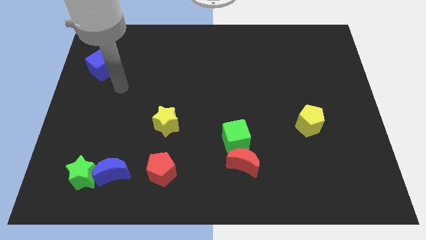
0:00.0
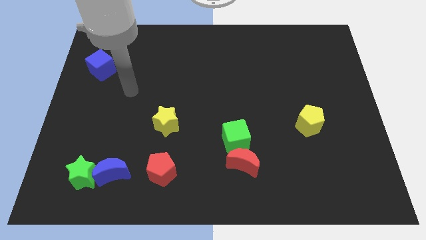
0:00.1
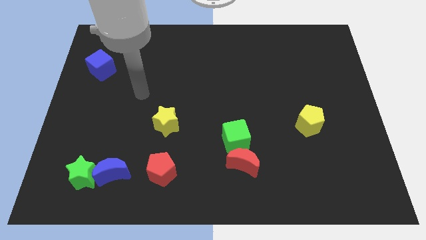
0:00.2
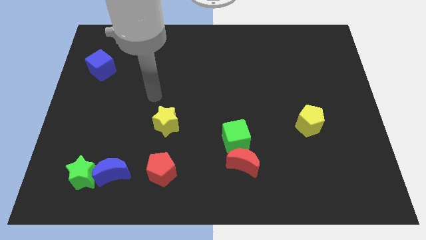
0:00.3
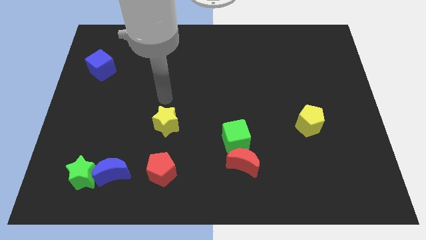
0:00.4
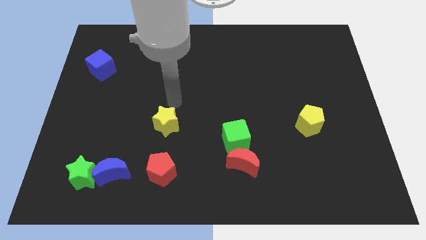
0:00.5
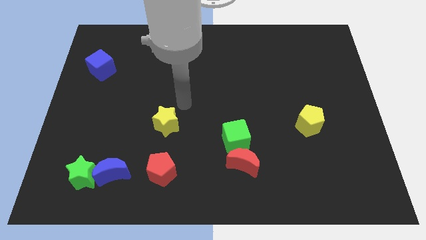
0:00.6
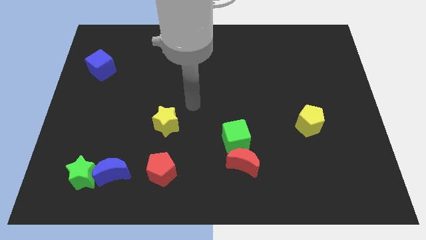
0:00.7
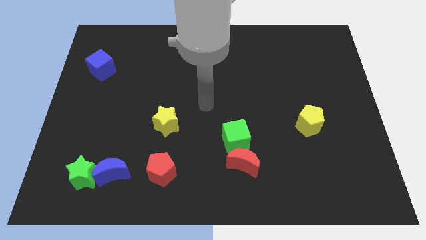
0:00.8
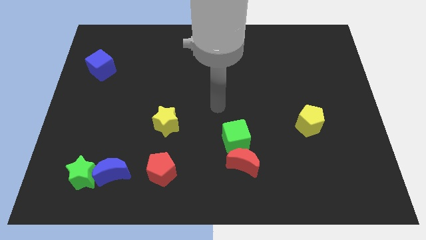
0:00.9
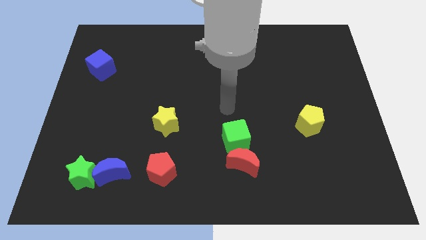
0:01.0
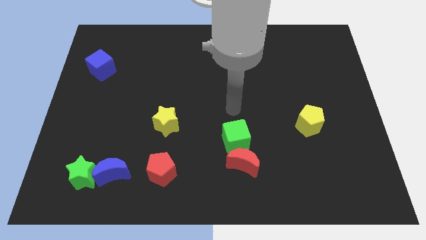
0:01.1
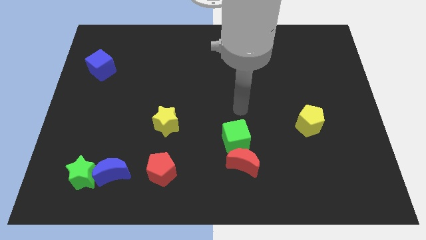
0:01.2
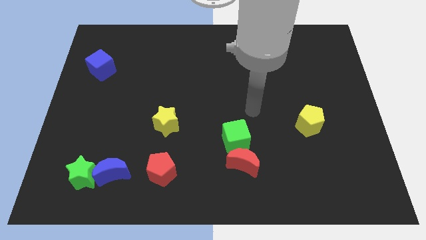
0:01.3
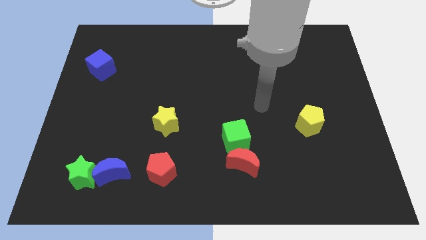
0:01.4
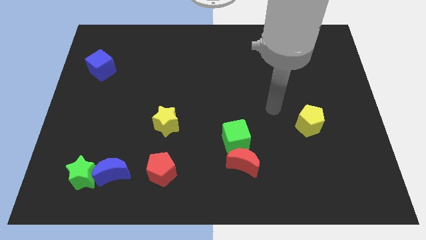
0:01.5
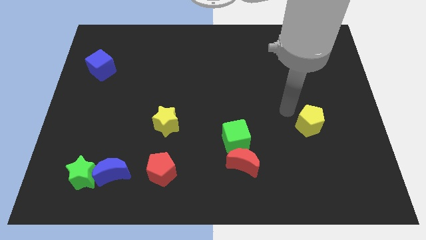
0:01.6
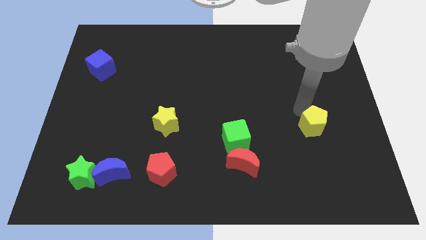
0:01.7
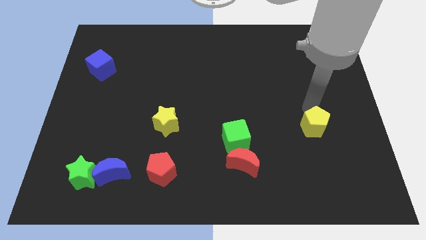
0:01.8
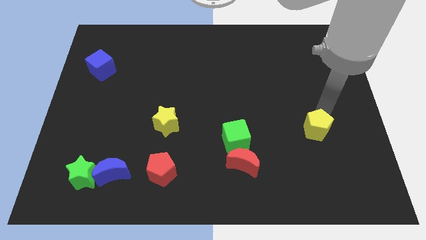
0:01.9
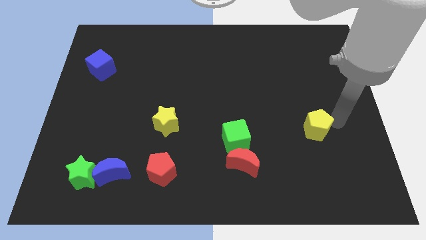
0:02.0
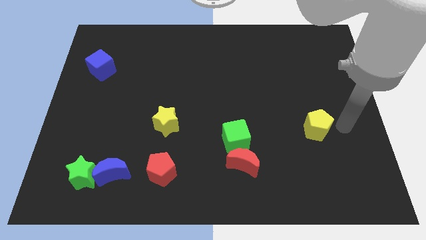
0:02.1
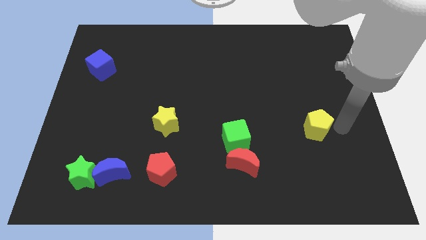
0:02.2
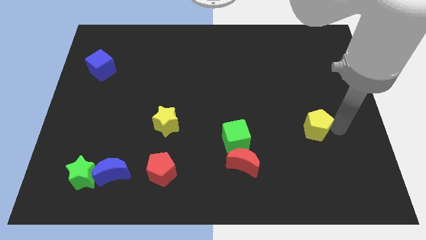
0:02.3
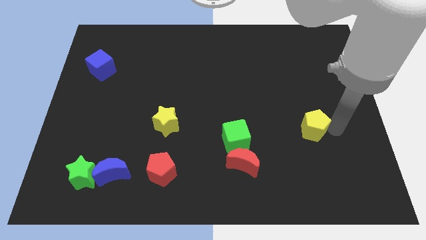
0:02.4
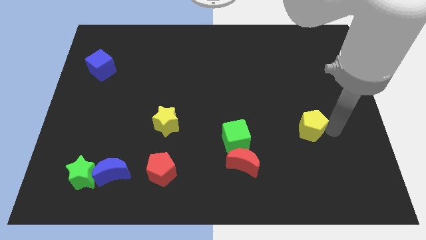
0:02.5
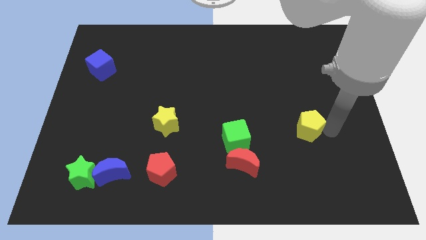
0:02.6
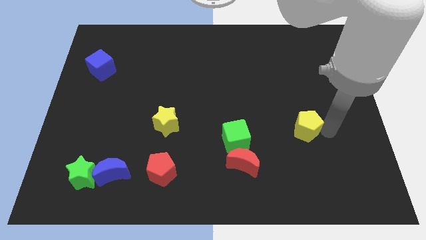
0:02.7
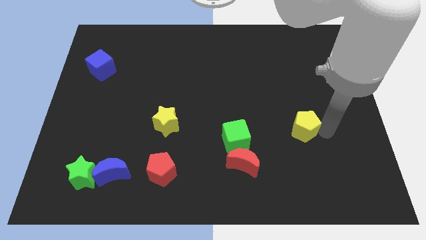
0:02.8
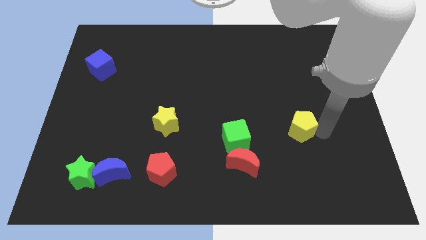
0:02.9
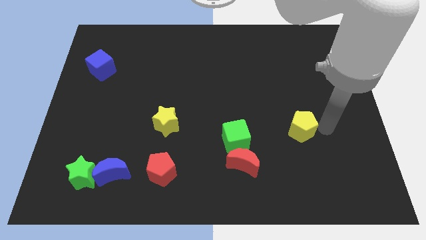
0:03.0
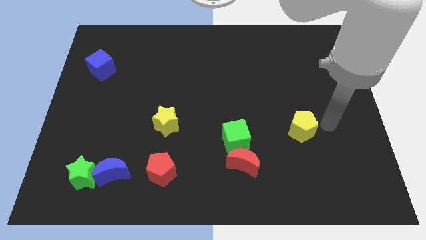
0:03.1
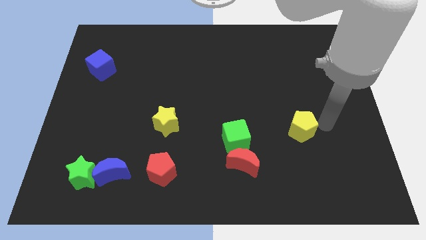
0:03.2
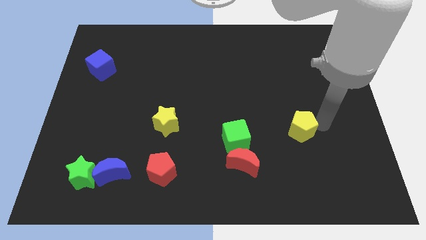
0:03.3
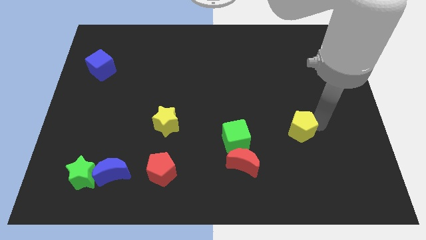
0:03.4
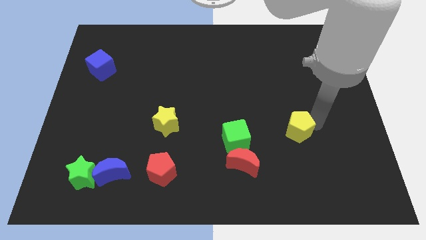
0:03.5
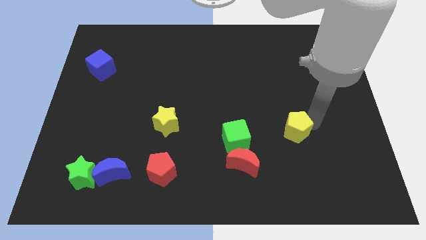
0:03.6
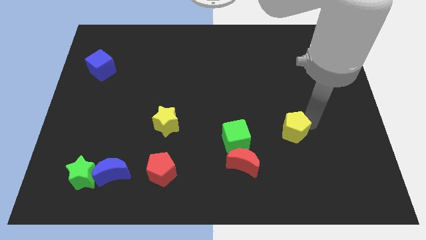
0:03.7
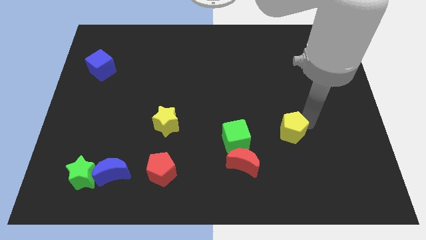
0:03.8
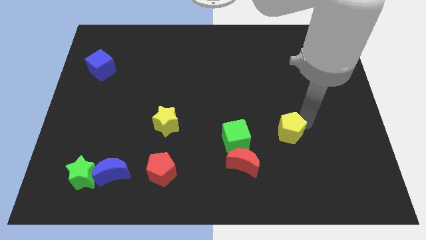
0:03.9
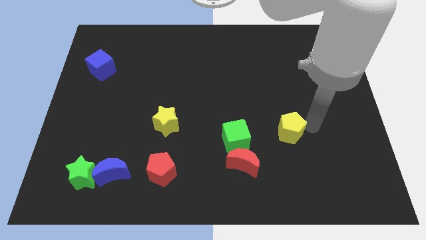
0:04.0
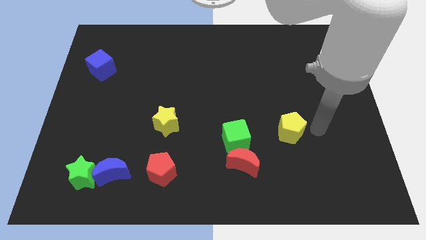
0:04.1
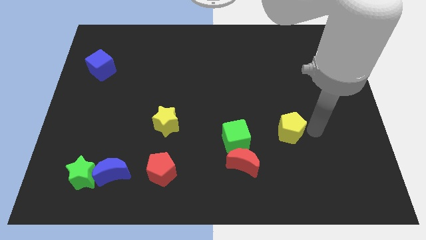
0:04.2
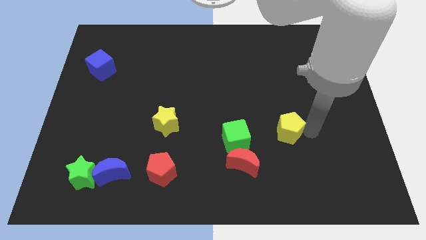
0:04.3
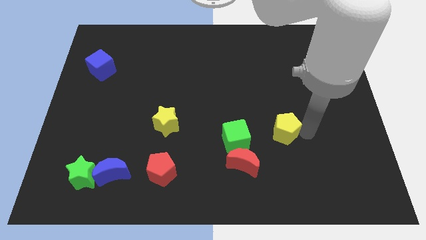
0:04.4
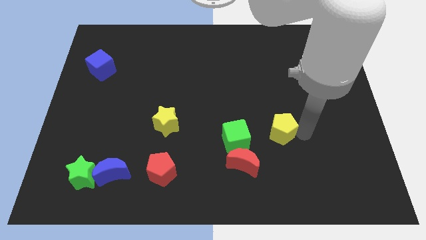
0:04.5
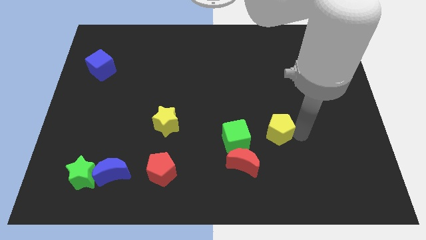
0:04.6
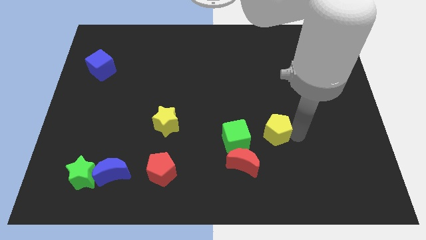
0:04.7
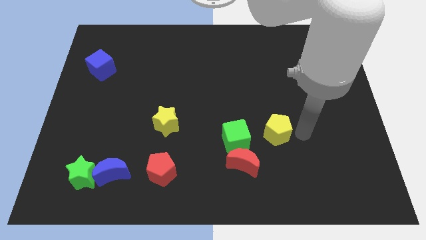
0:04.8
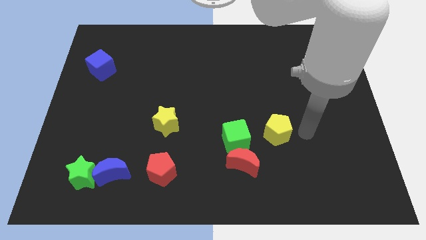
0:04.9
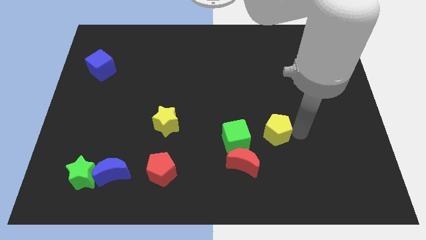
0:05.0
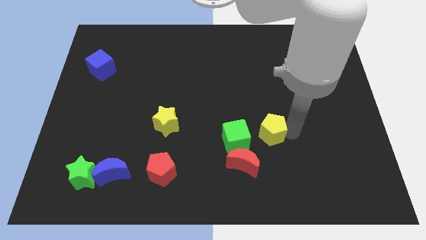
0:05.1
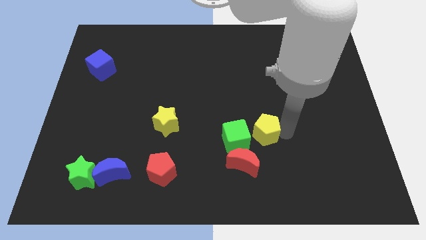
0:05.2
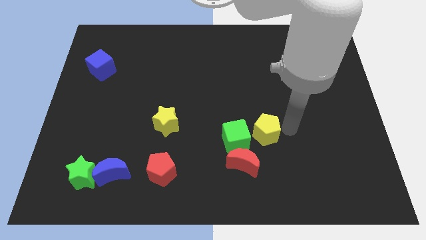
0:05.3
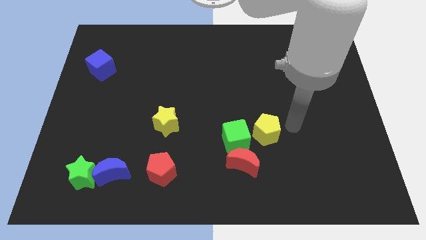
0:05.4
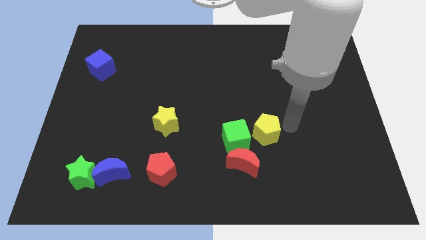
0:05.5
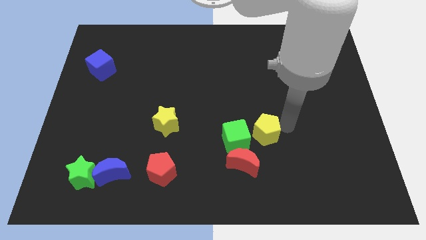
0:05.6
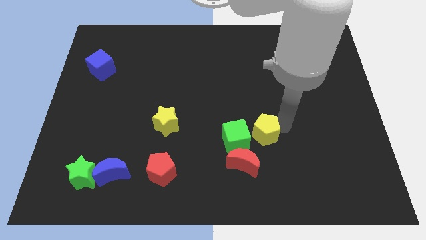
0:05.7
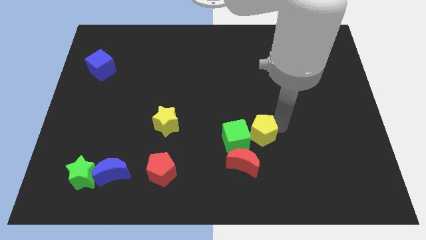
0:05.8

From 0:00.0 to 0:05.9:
move the yellow pentagon towards the green cube

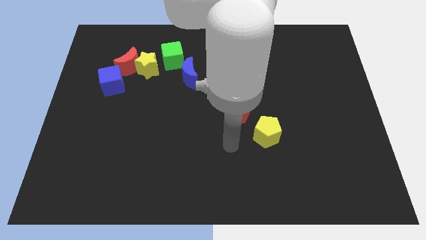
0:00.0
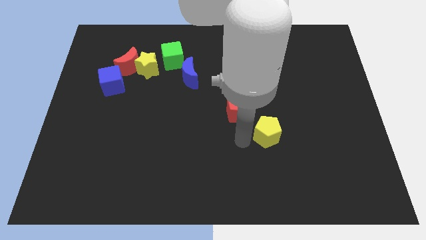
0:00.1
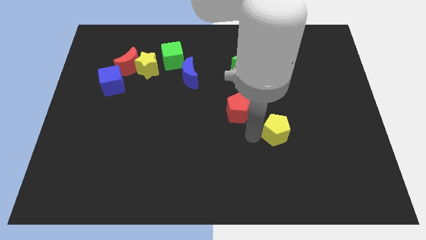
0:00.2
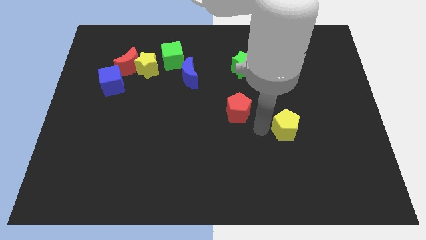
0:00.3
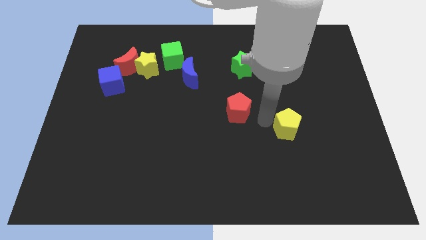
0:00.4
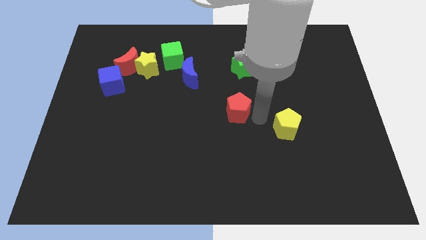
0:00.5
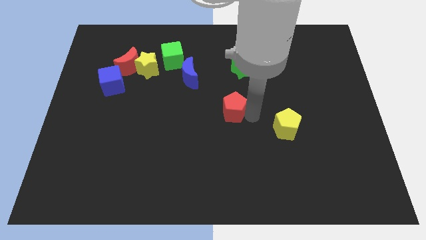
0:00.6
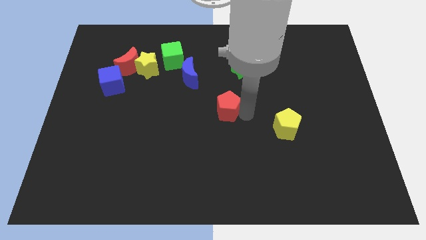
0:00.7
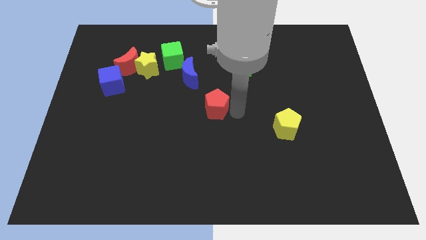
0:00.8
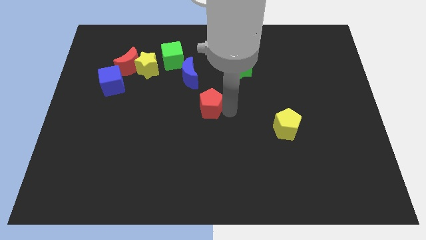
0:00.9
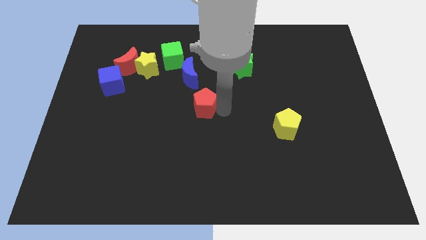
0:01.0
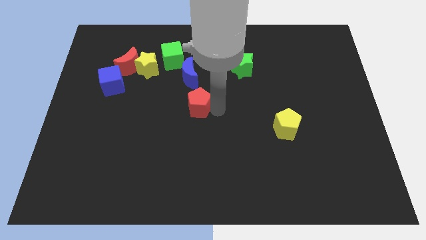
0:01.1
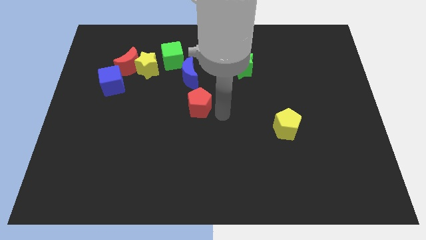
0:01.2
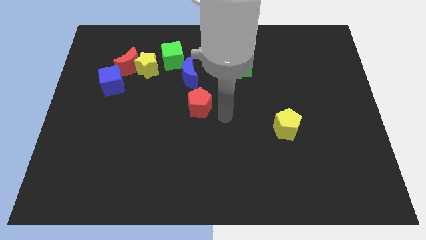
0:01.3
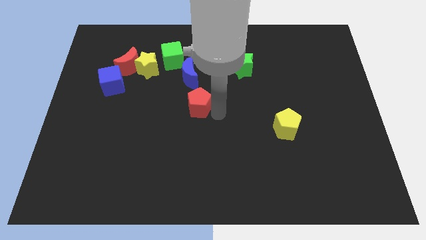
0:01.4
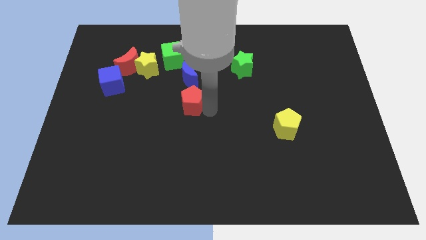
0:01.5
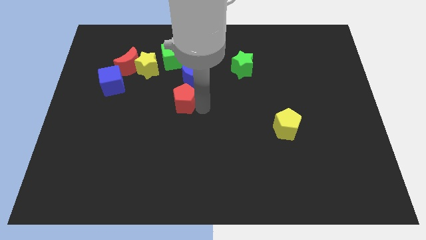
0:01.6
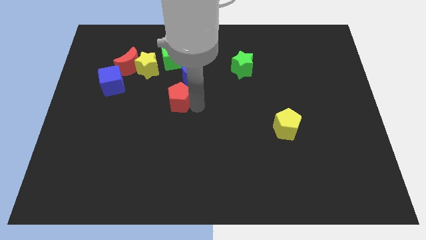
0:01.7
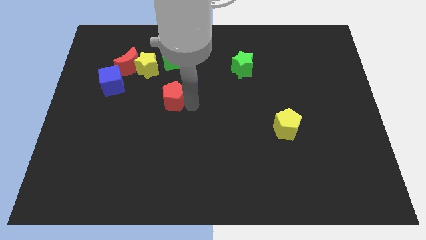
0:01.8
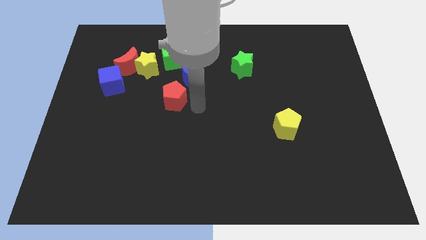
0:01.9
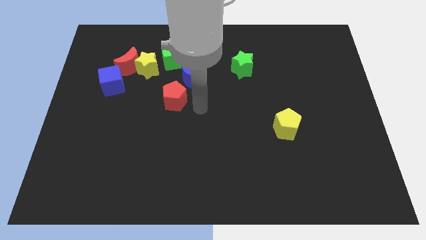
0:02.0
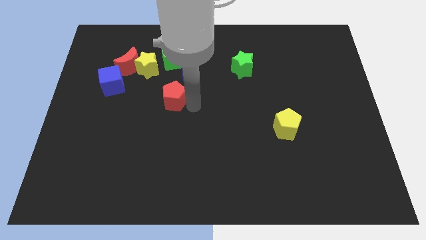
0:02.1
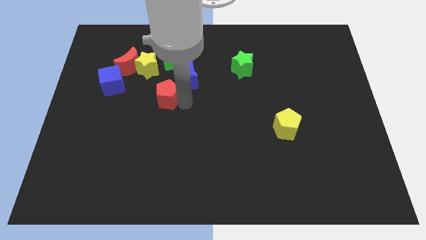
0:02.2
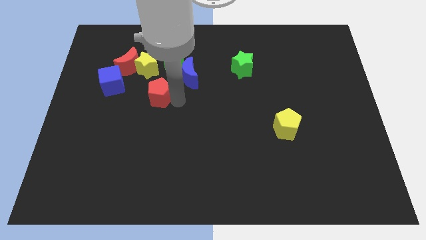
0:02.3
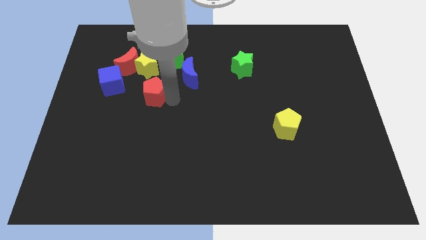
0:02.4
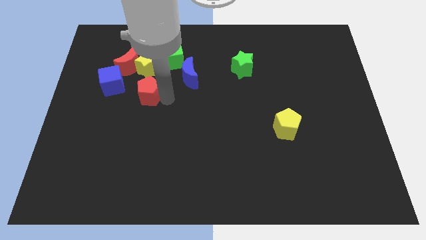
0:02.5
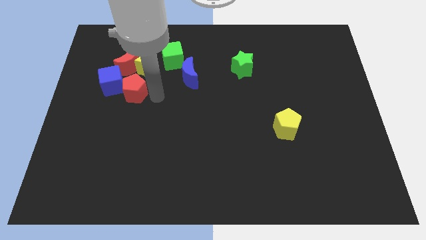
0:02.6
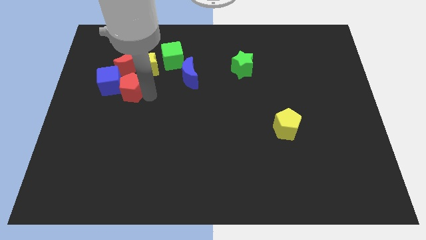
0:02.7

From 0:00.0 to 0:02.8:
slide the red pentagon to the blue cube
